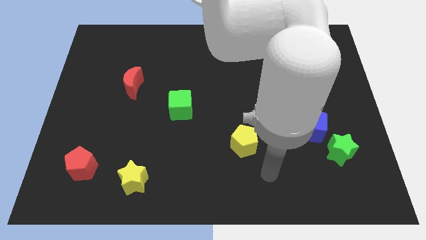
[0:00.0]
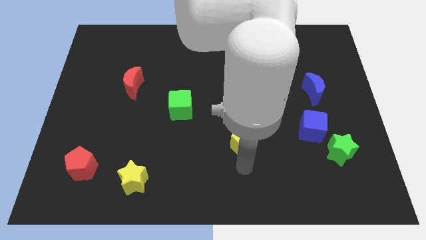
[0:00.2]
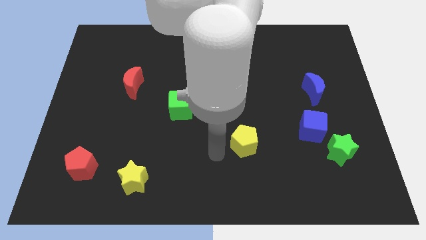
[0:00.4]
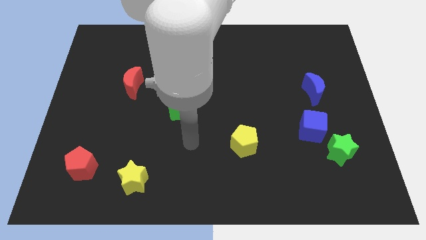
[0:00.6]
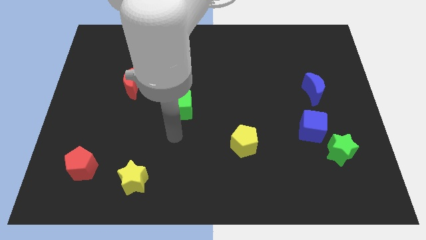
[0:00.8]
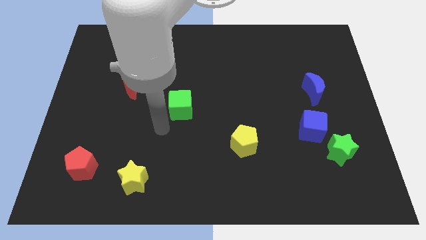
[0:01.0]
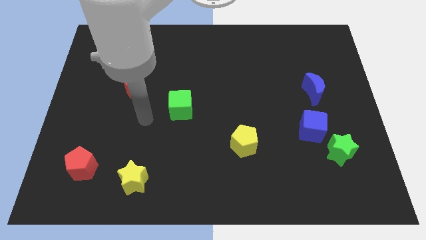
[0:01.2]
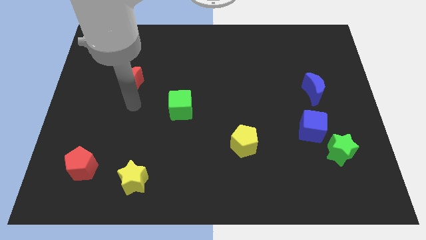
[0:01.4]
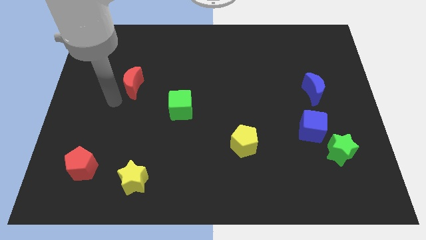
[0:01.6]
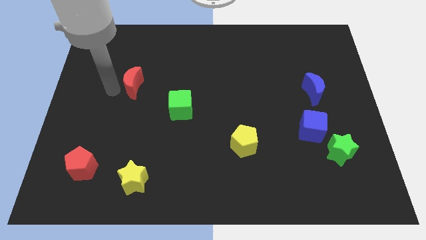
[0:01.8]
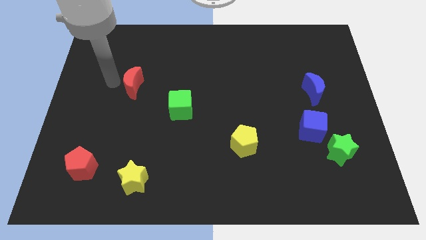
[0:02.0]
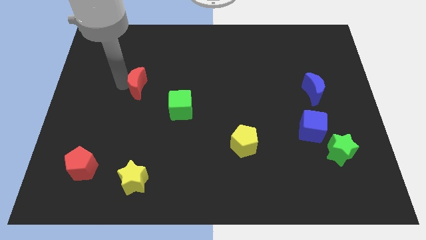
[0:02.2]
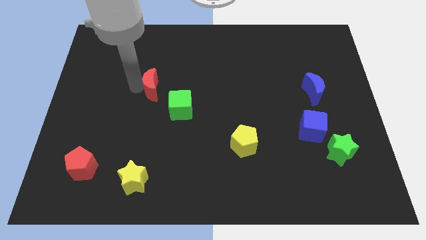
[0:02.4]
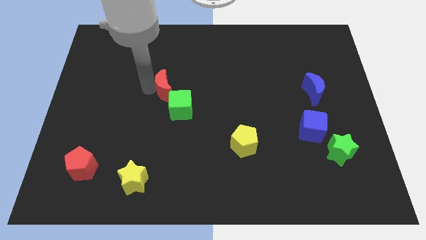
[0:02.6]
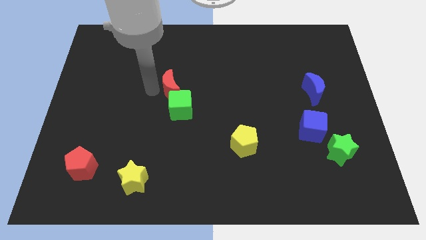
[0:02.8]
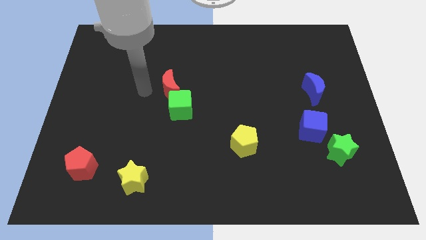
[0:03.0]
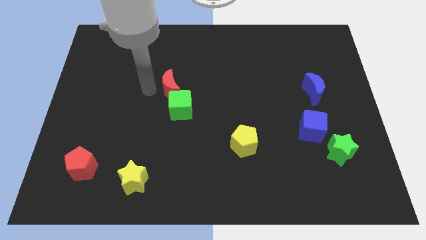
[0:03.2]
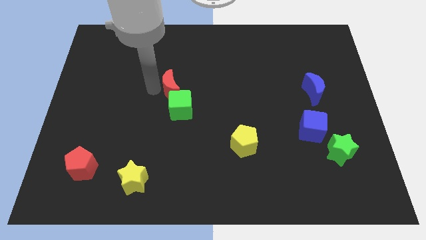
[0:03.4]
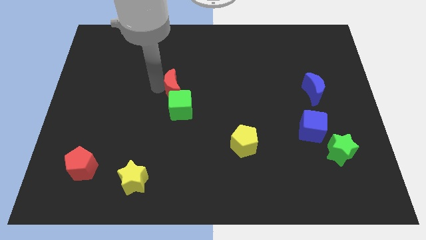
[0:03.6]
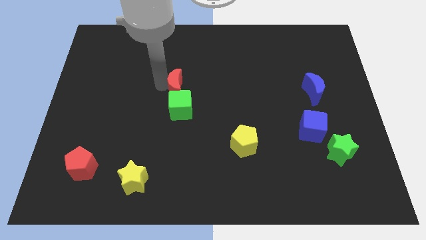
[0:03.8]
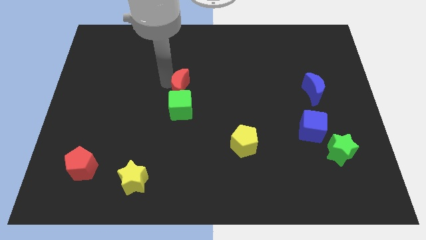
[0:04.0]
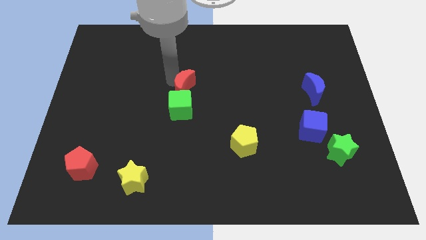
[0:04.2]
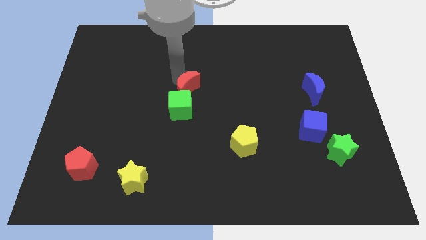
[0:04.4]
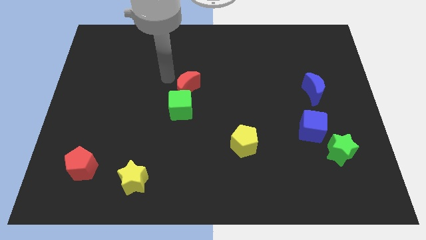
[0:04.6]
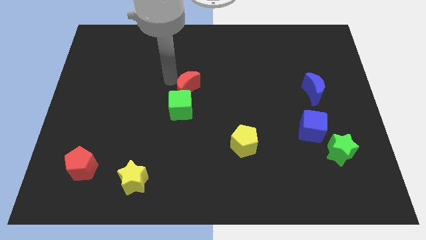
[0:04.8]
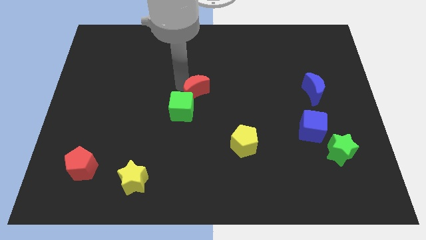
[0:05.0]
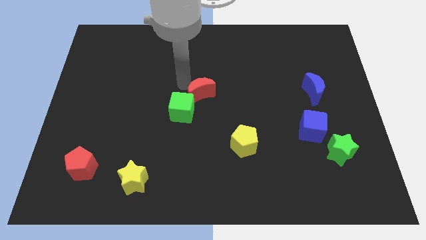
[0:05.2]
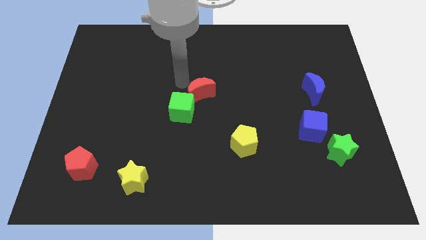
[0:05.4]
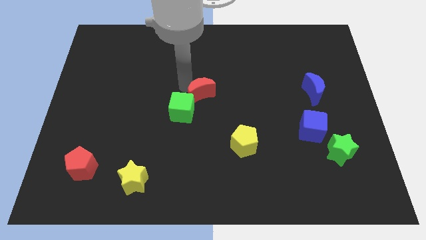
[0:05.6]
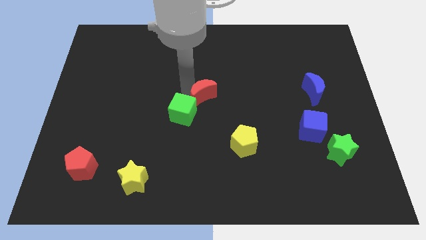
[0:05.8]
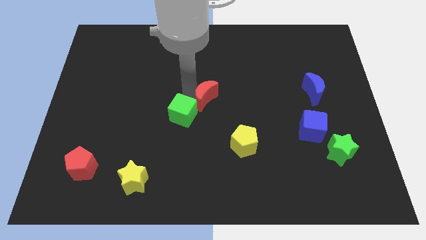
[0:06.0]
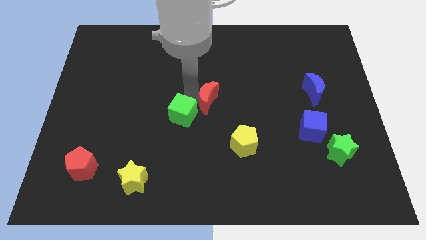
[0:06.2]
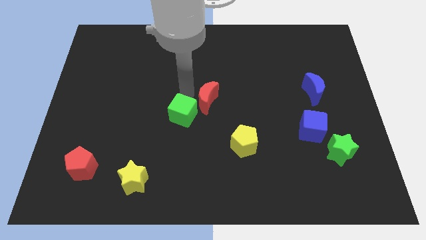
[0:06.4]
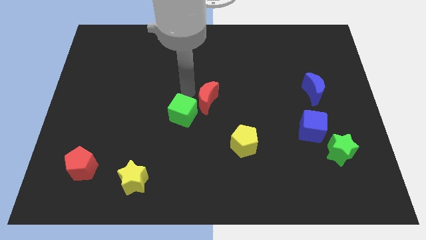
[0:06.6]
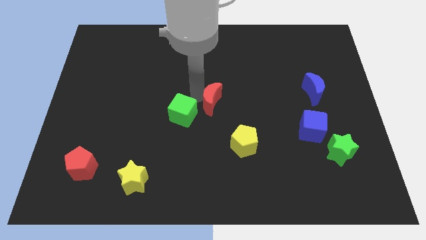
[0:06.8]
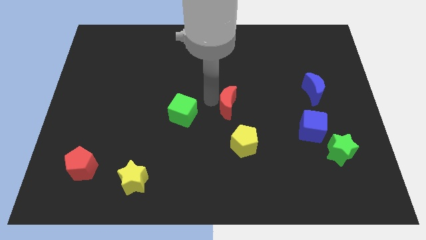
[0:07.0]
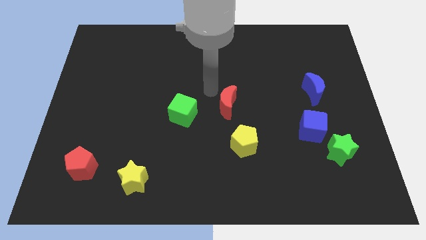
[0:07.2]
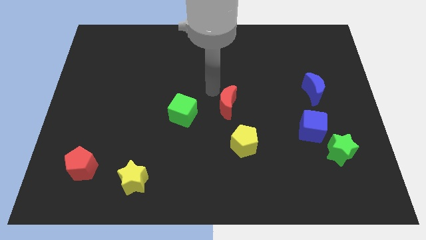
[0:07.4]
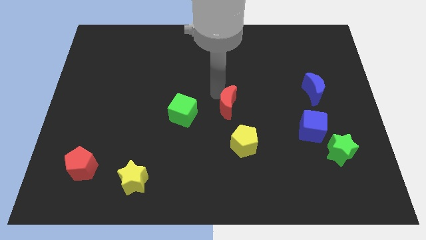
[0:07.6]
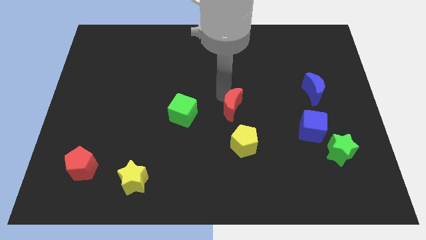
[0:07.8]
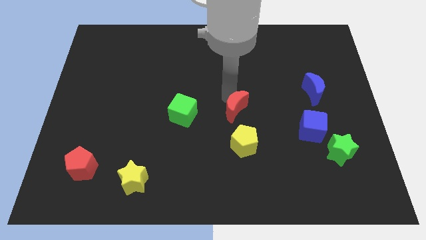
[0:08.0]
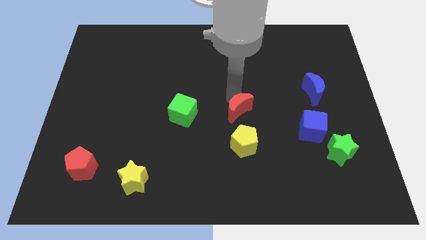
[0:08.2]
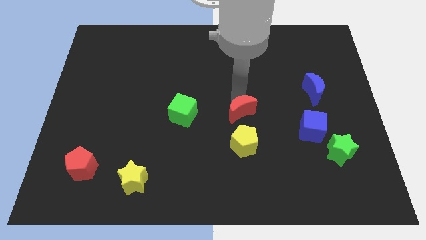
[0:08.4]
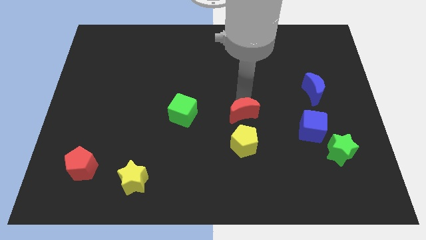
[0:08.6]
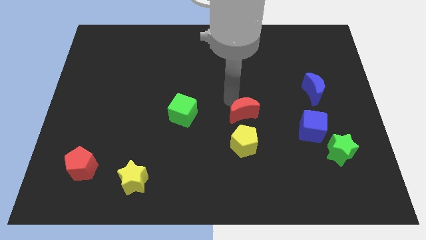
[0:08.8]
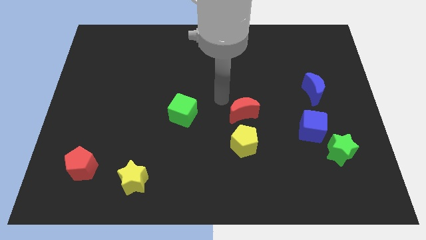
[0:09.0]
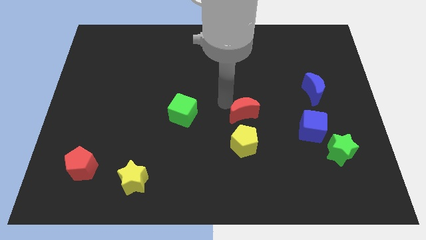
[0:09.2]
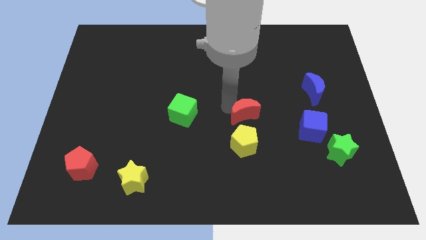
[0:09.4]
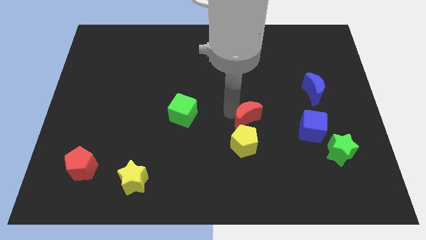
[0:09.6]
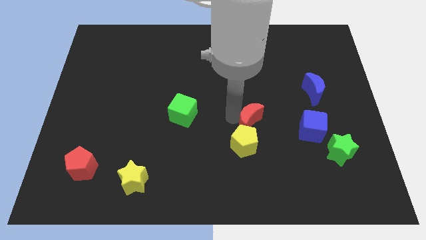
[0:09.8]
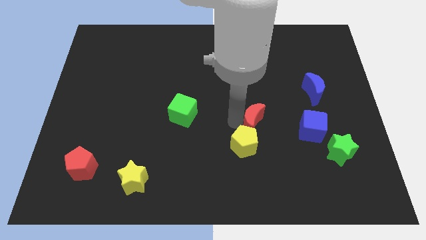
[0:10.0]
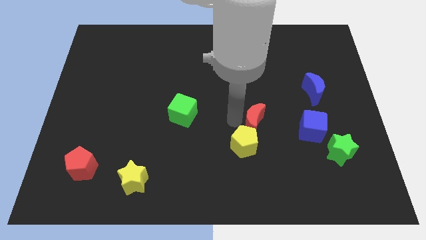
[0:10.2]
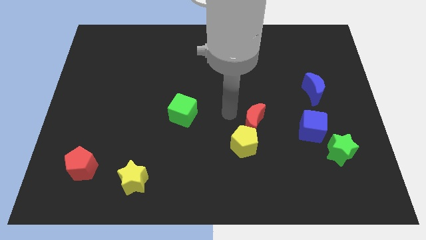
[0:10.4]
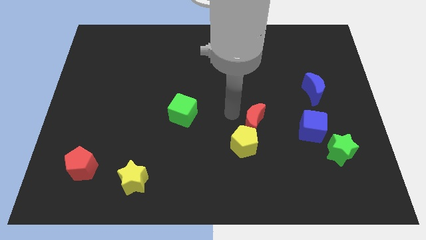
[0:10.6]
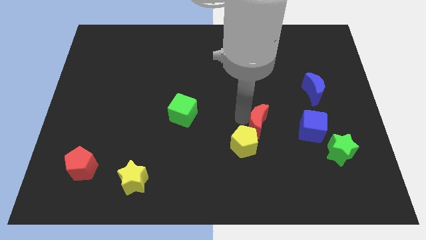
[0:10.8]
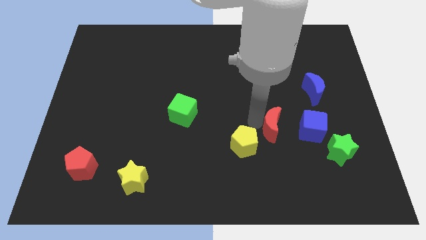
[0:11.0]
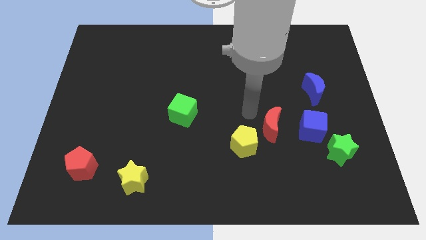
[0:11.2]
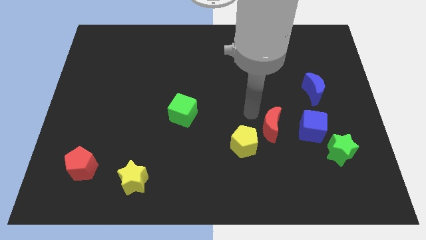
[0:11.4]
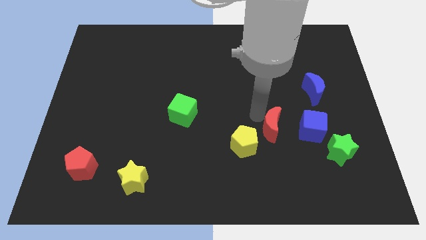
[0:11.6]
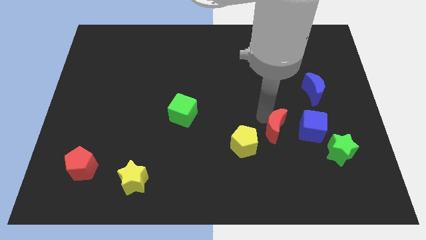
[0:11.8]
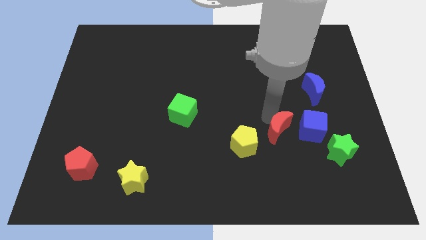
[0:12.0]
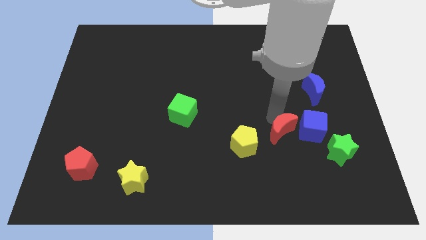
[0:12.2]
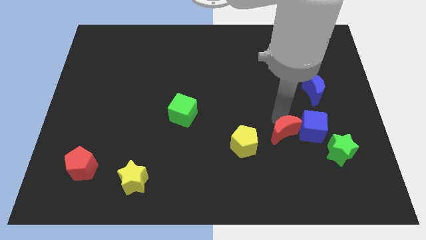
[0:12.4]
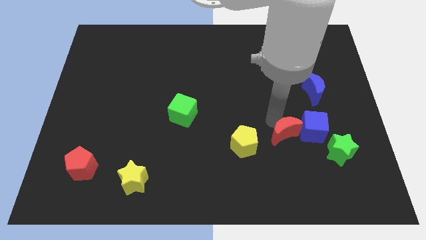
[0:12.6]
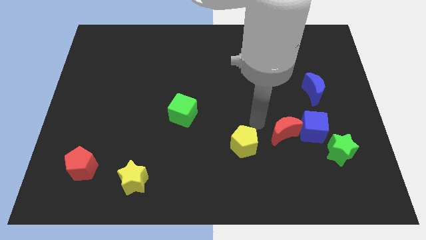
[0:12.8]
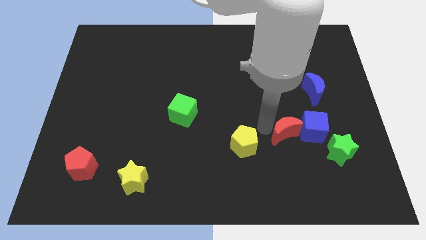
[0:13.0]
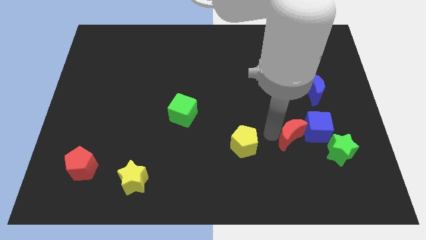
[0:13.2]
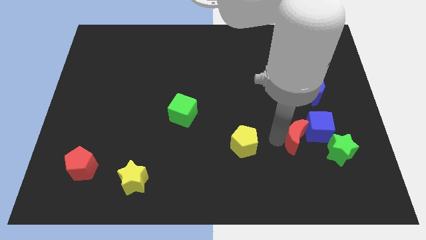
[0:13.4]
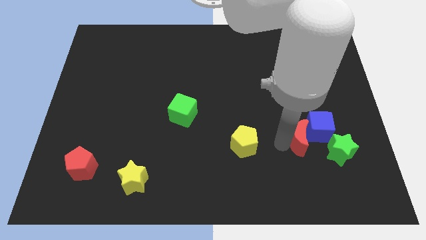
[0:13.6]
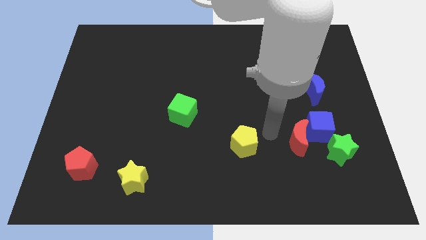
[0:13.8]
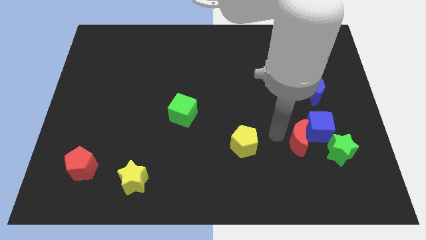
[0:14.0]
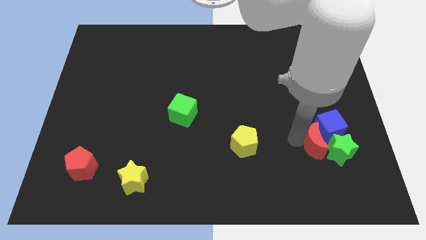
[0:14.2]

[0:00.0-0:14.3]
push the red moon to the green star

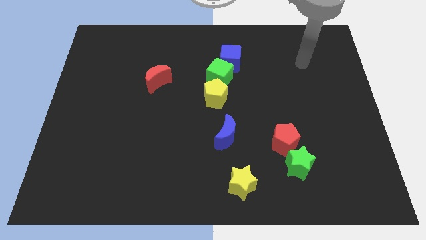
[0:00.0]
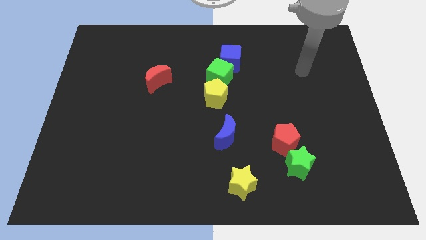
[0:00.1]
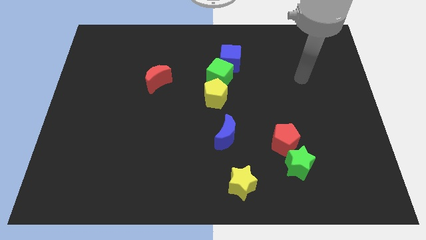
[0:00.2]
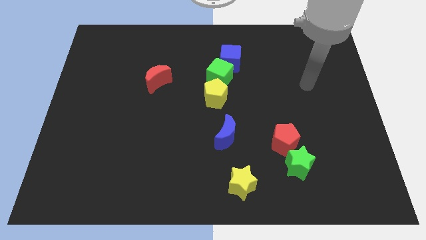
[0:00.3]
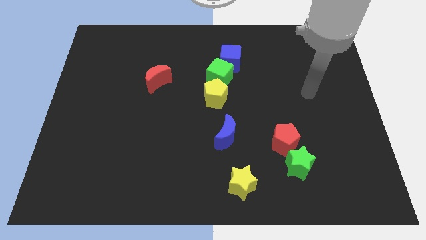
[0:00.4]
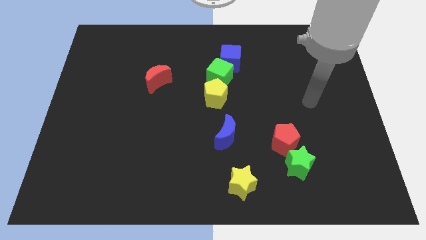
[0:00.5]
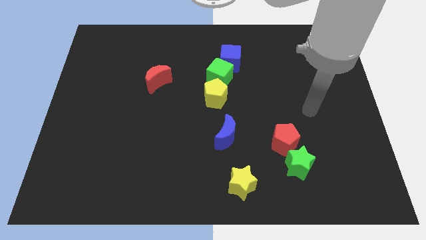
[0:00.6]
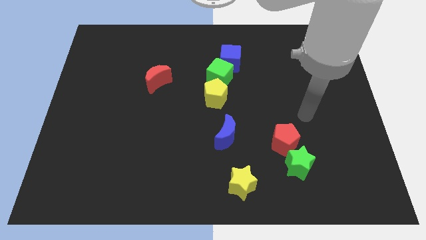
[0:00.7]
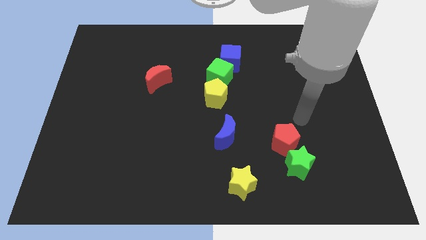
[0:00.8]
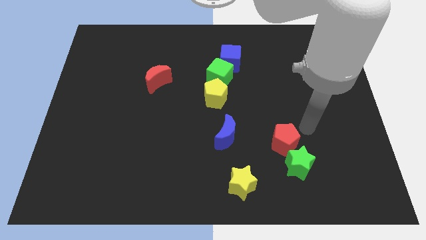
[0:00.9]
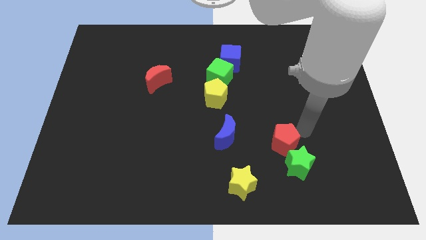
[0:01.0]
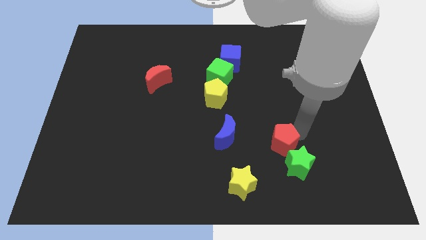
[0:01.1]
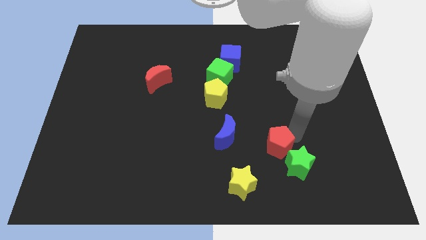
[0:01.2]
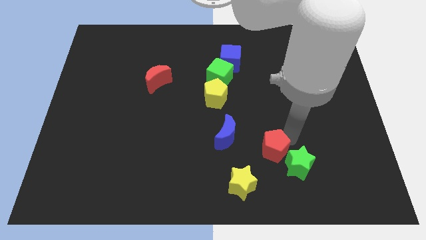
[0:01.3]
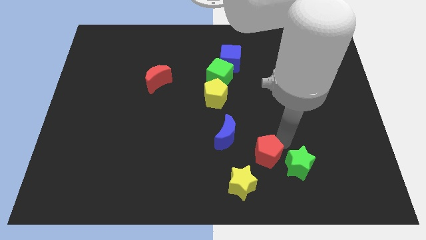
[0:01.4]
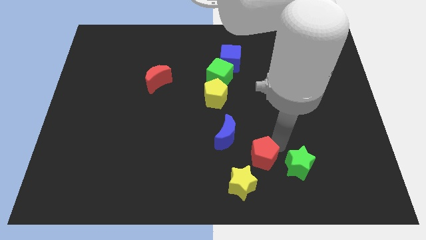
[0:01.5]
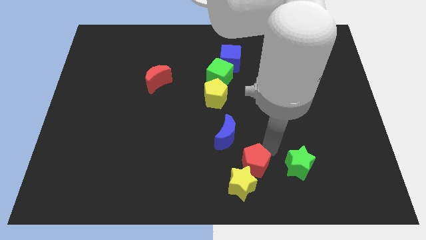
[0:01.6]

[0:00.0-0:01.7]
push the red pentagon close to the yellow star
